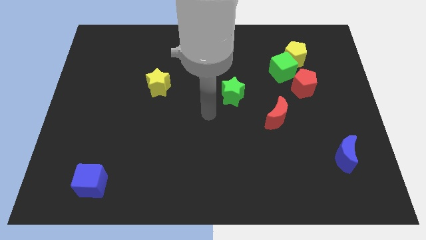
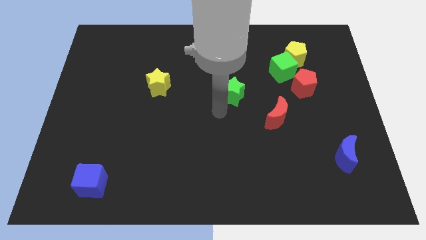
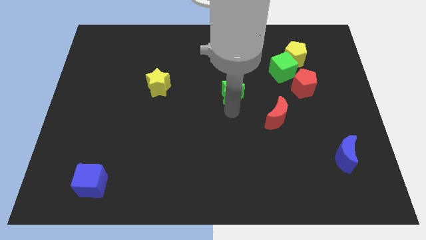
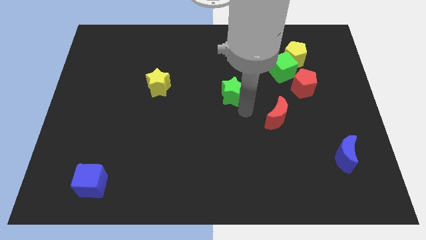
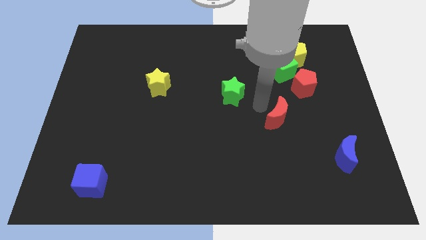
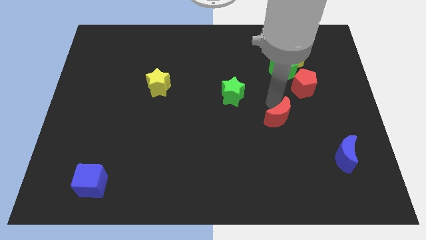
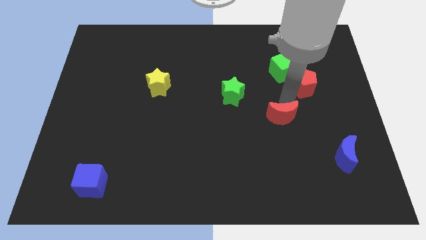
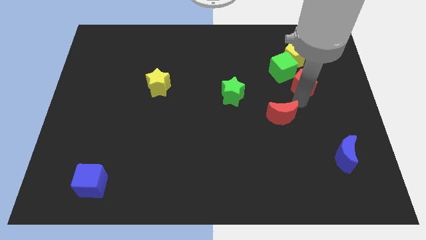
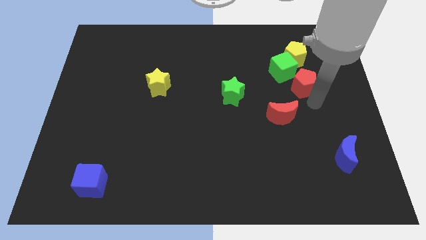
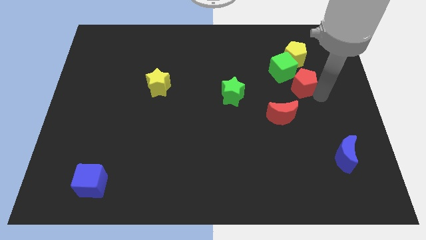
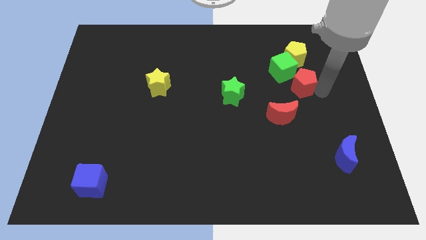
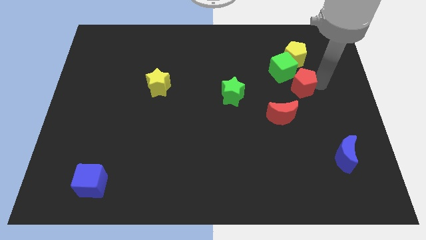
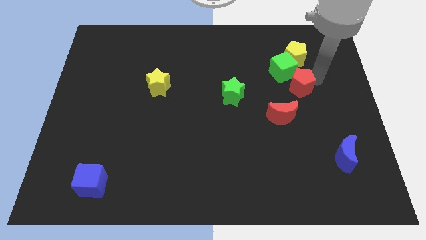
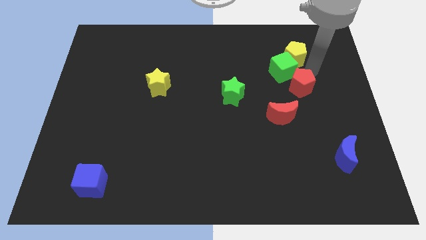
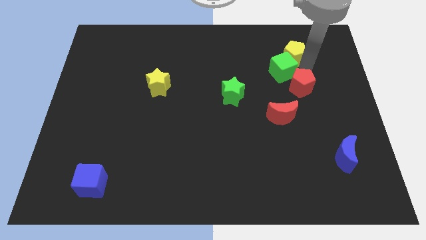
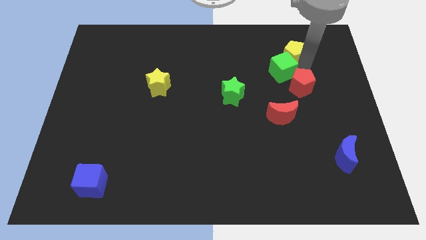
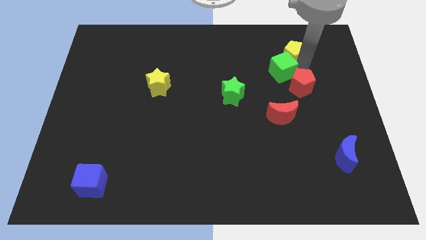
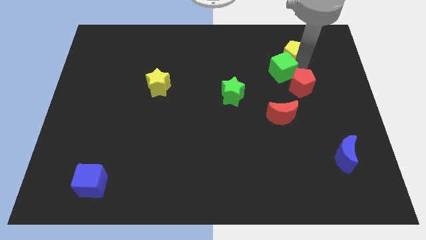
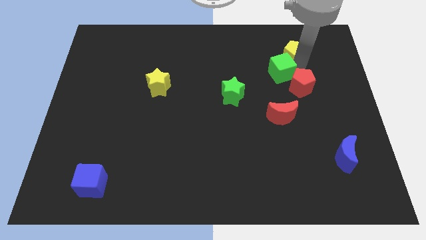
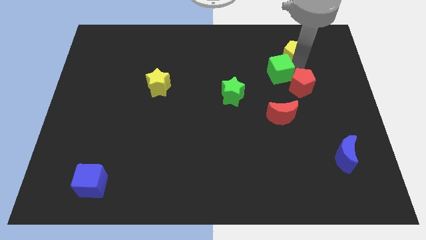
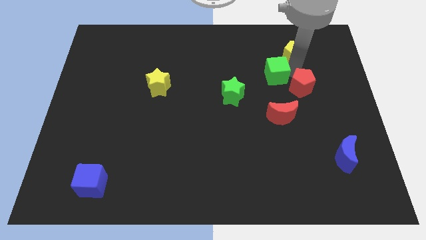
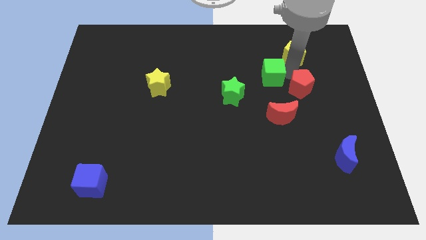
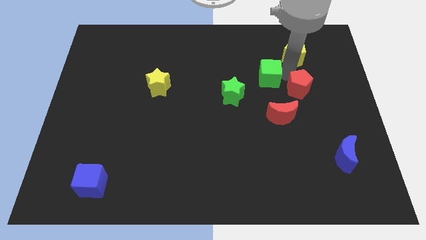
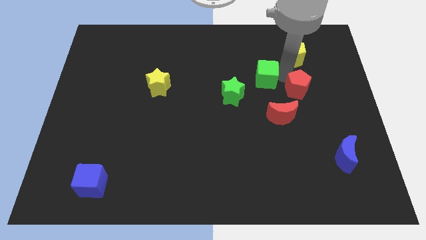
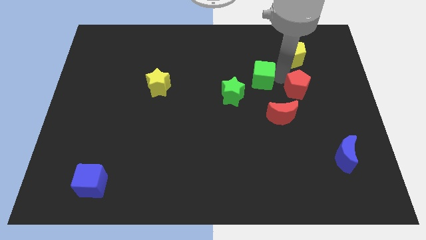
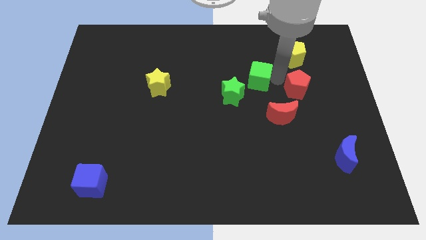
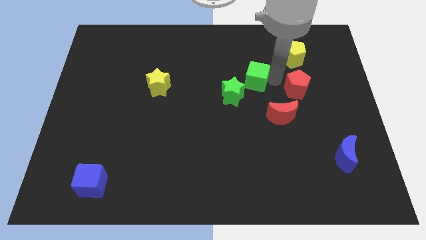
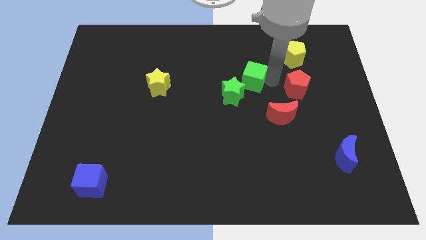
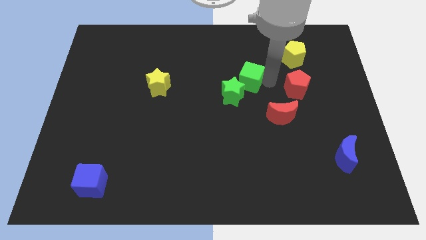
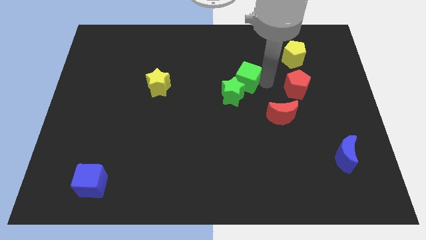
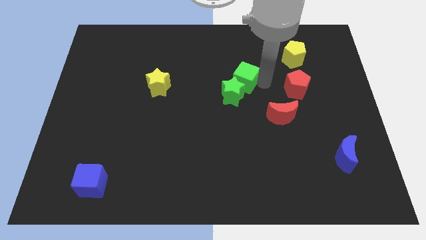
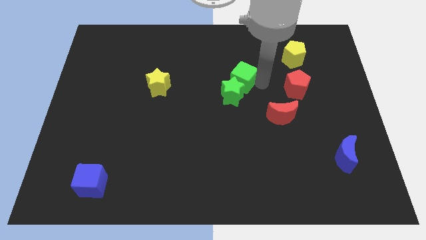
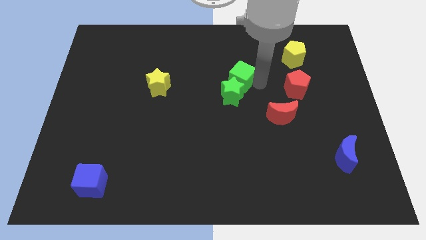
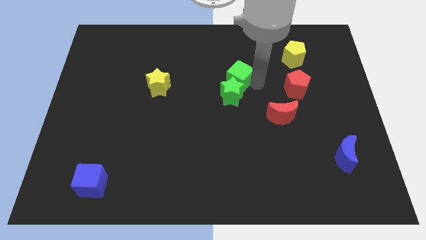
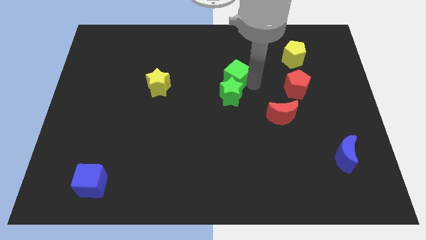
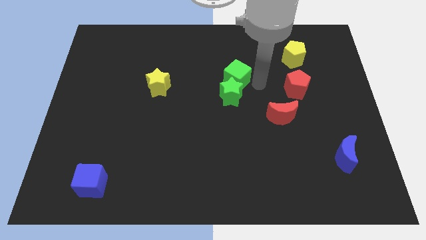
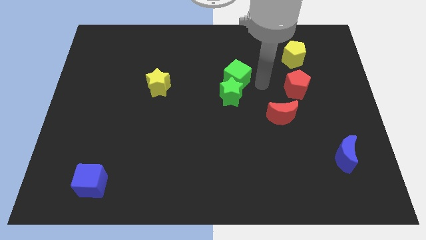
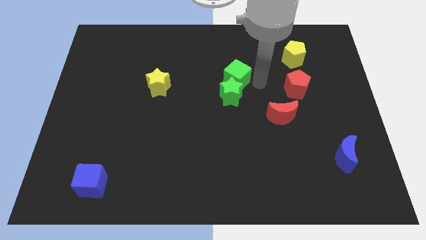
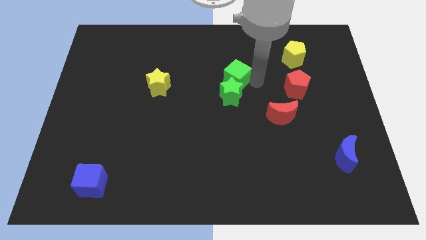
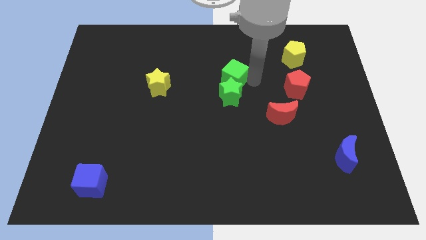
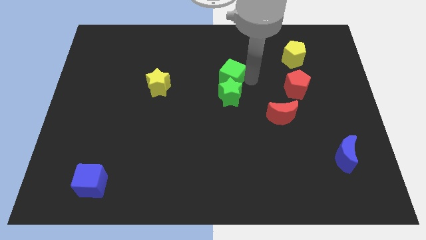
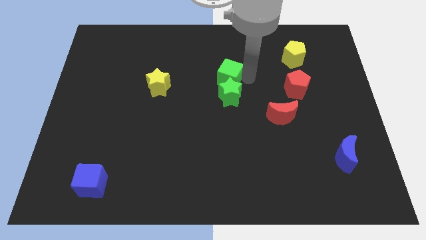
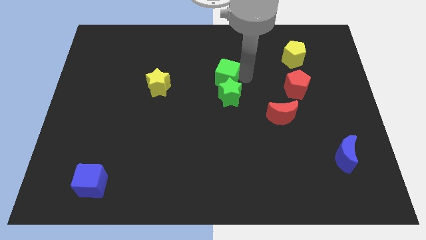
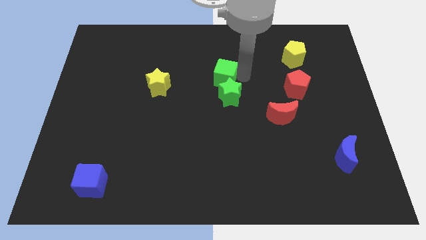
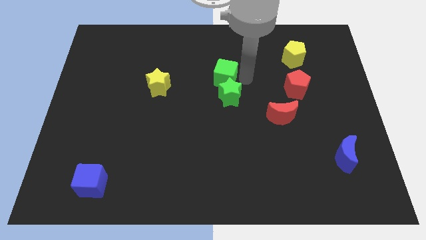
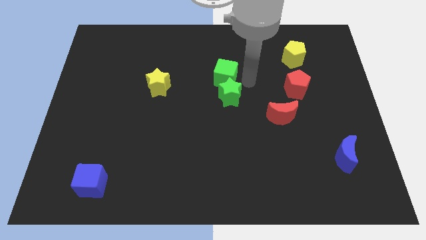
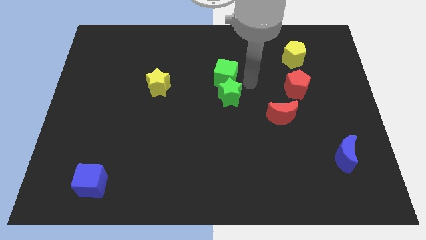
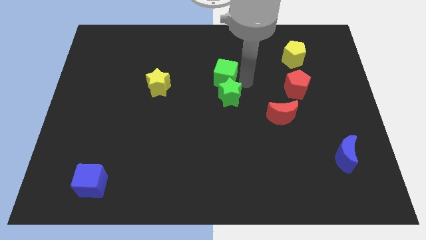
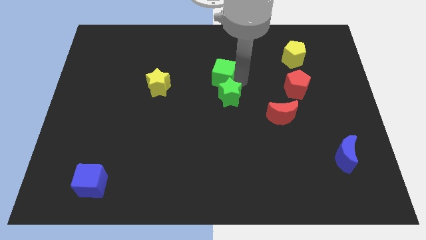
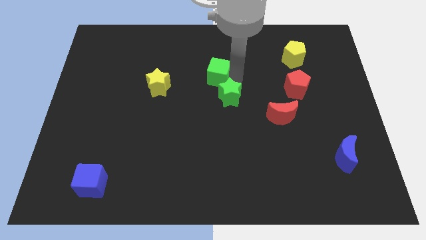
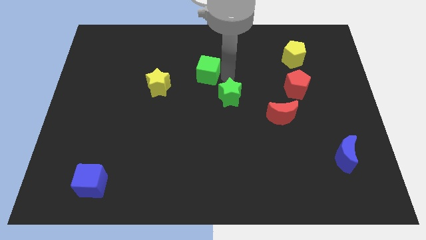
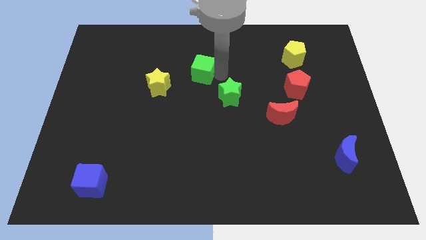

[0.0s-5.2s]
move the green cube left

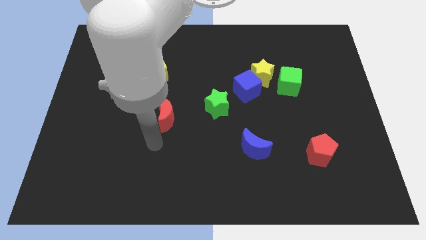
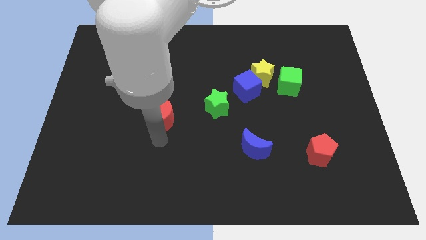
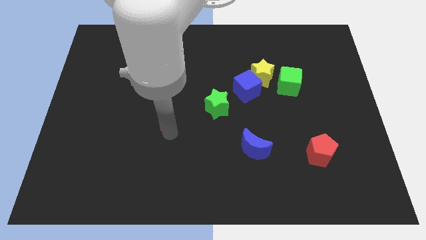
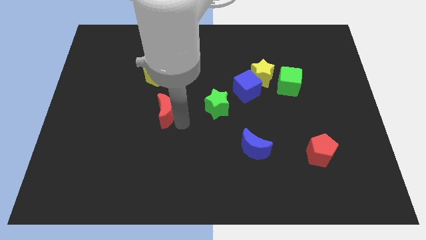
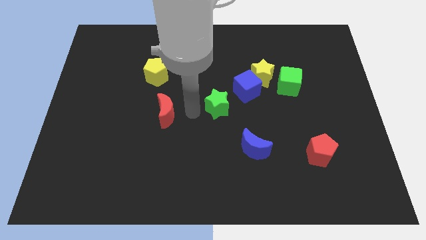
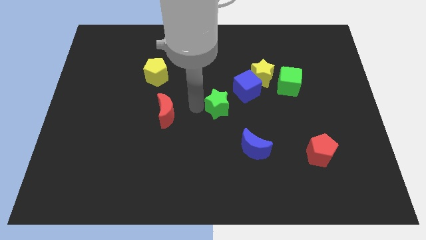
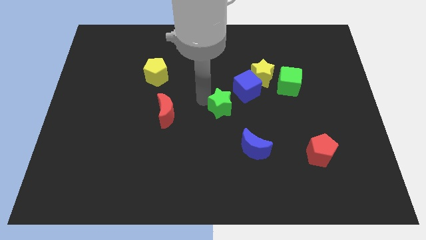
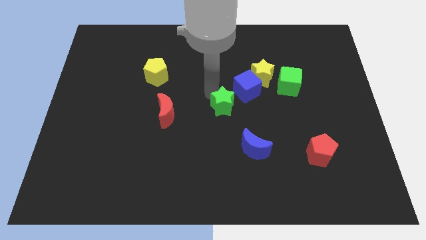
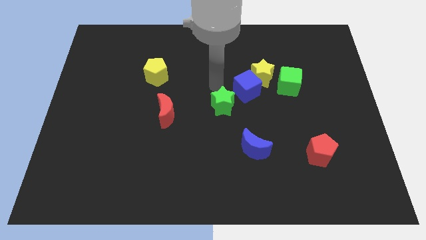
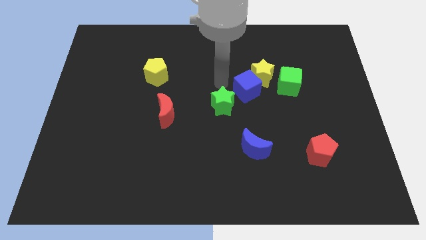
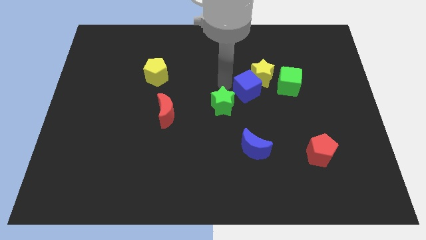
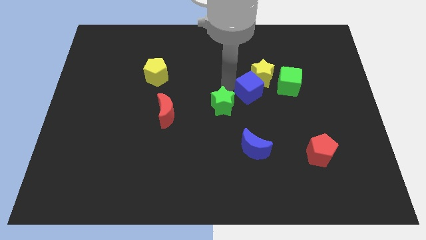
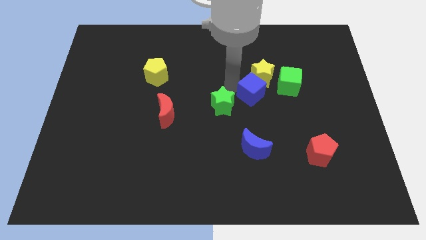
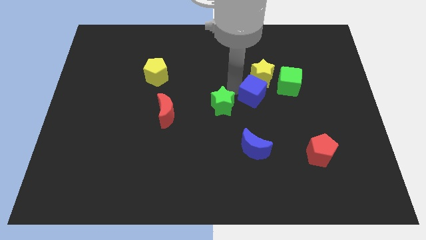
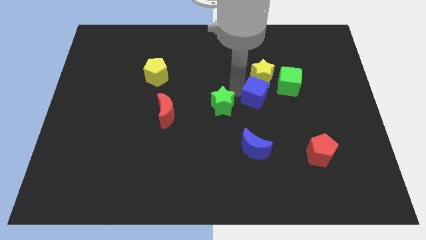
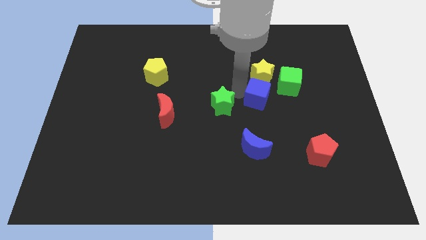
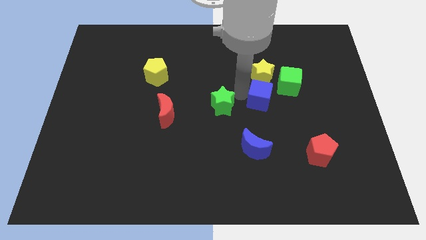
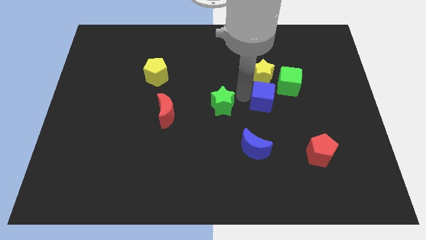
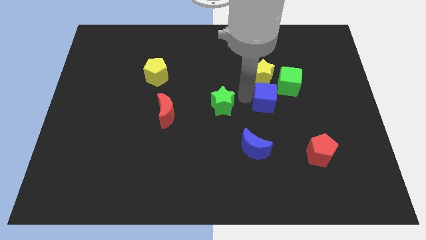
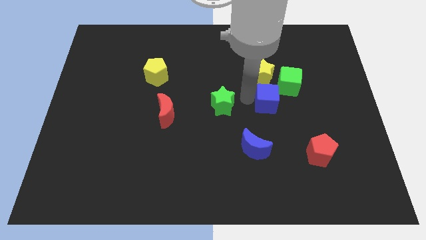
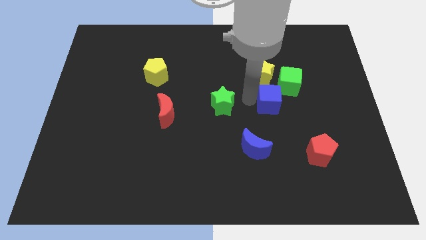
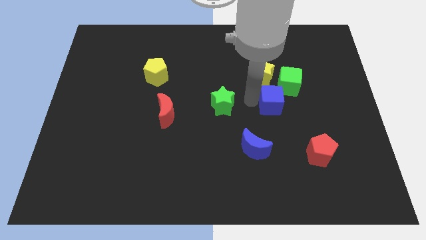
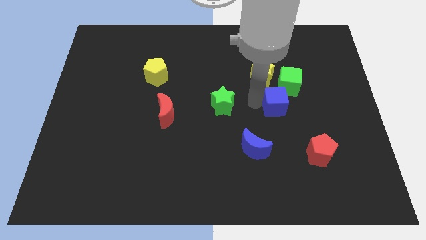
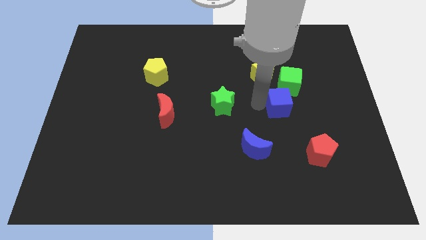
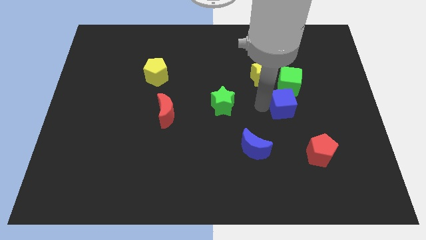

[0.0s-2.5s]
slide the blue cube right somewhat

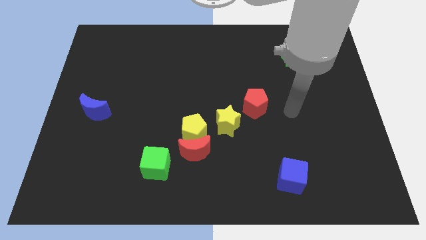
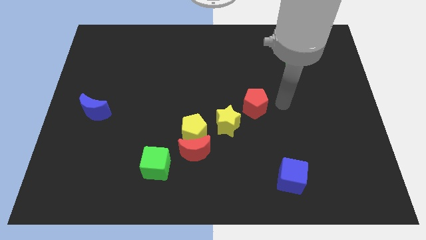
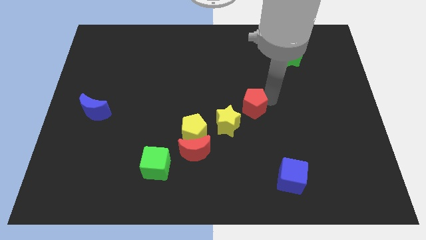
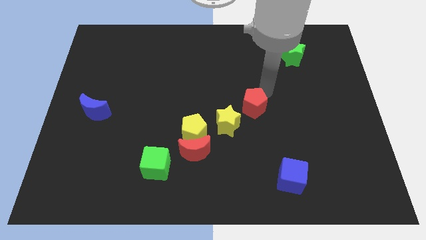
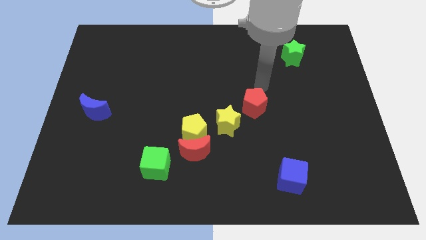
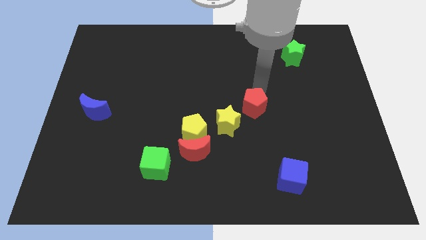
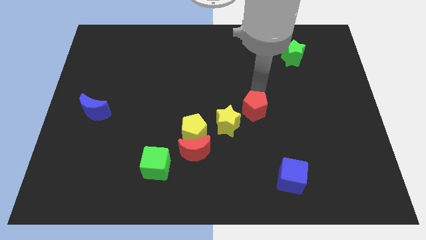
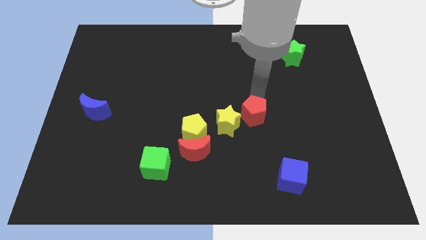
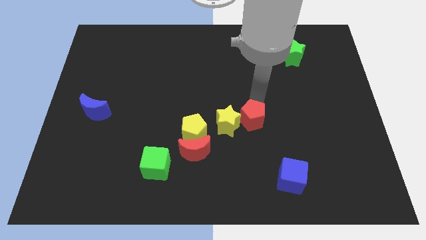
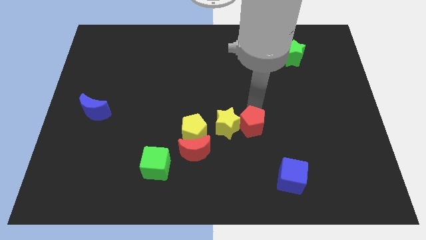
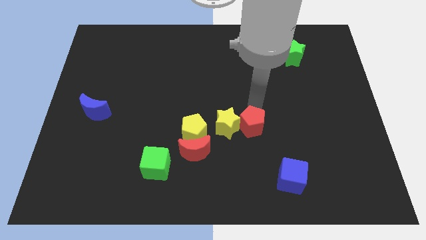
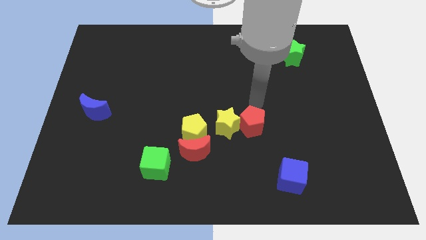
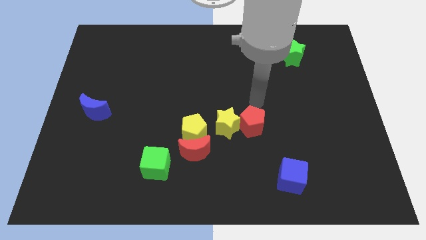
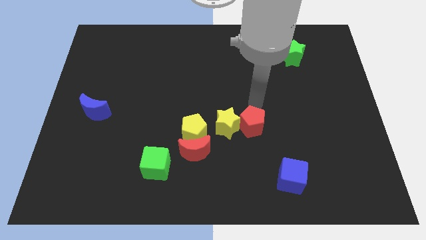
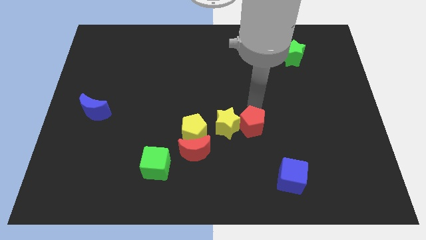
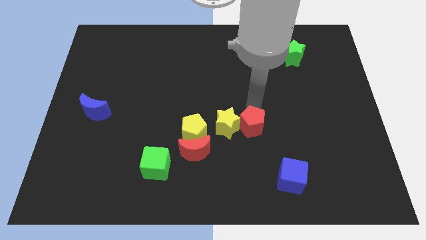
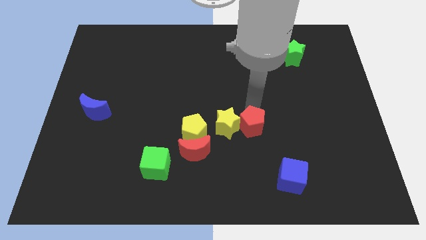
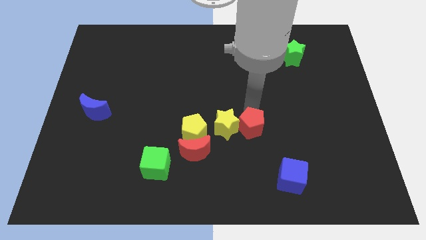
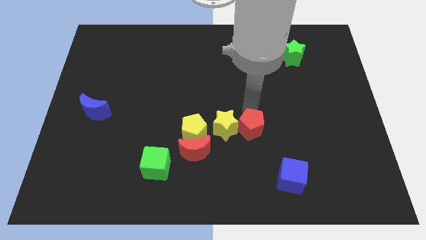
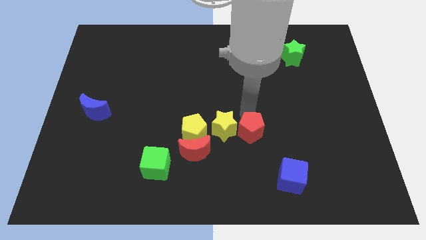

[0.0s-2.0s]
slide the red pentagon down a little
